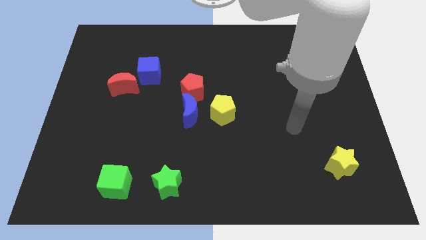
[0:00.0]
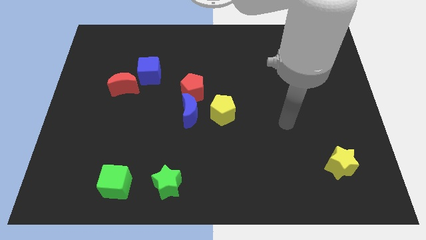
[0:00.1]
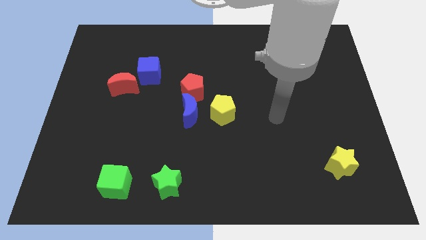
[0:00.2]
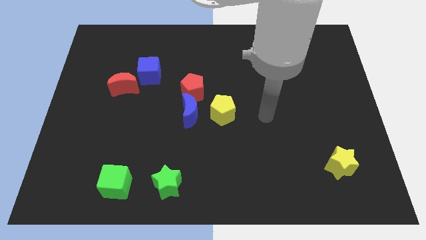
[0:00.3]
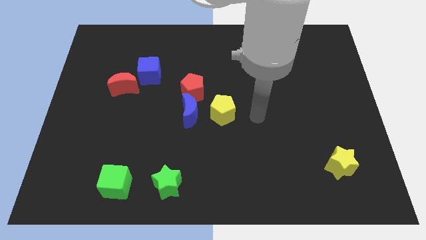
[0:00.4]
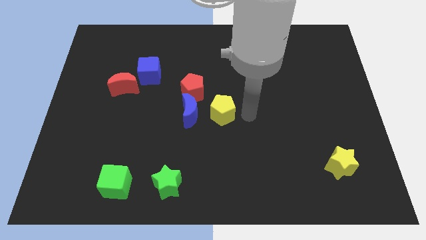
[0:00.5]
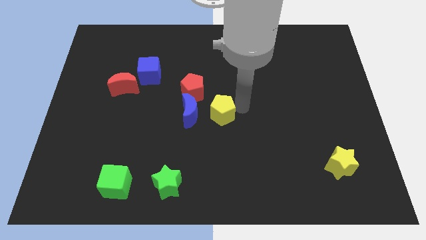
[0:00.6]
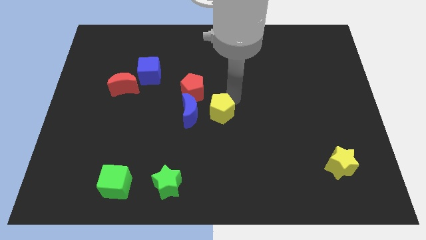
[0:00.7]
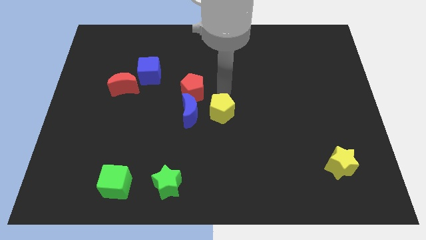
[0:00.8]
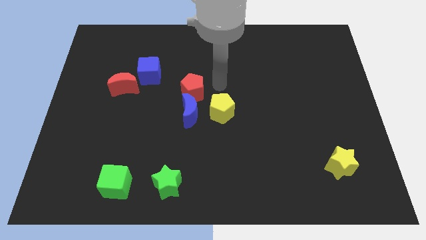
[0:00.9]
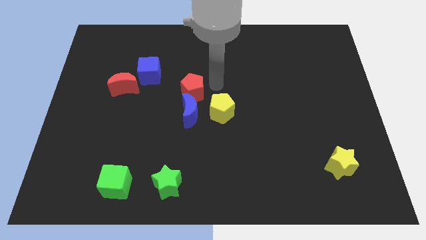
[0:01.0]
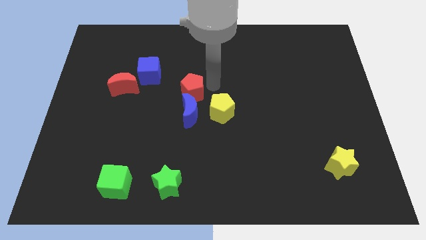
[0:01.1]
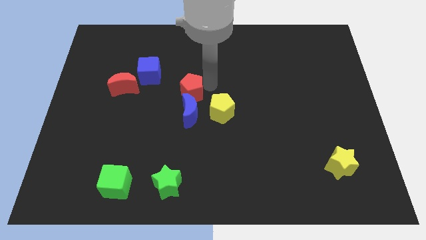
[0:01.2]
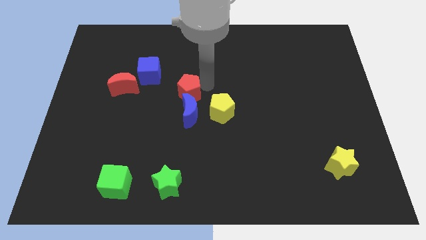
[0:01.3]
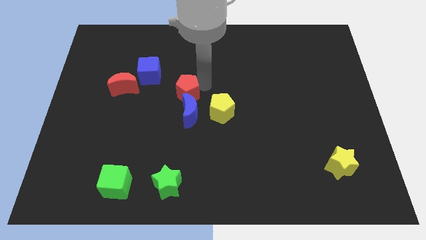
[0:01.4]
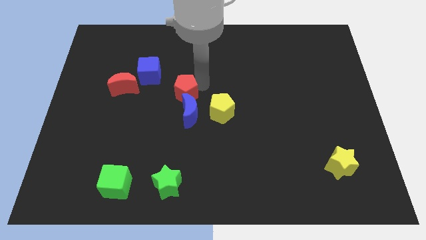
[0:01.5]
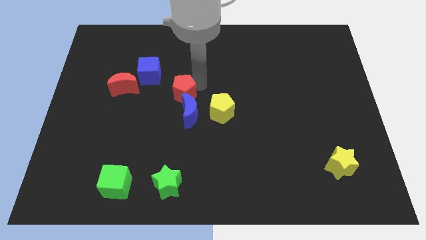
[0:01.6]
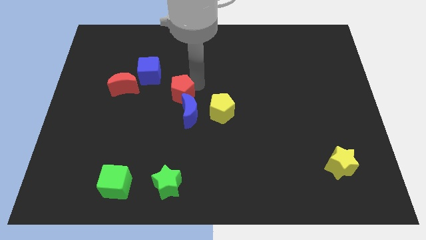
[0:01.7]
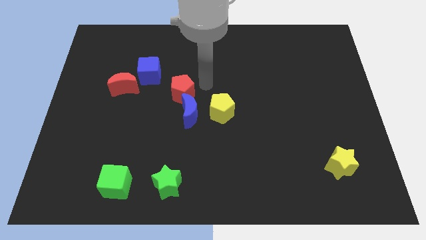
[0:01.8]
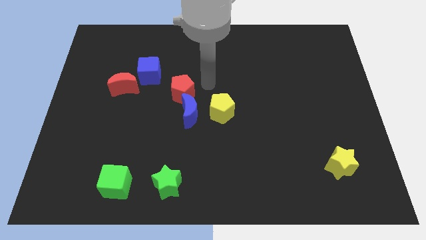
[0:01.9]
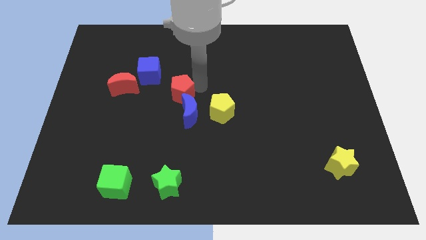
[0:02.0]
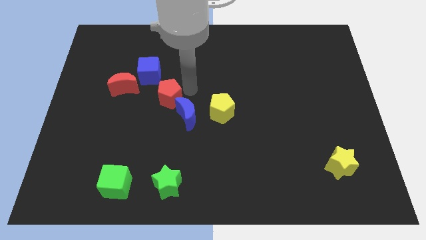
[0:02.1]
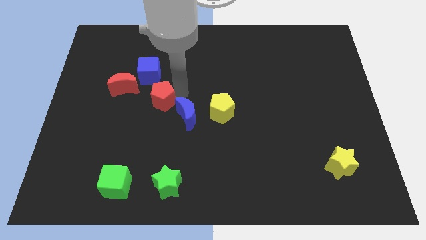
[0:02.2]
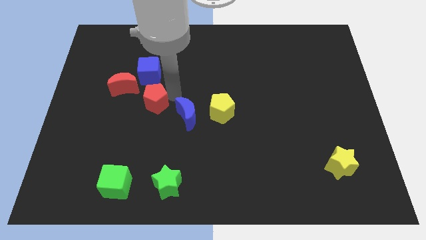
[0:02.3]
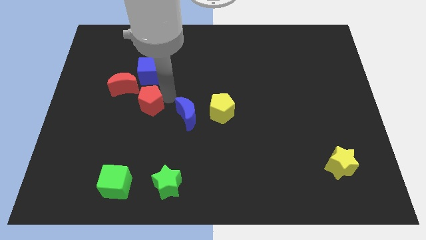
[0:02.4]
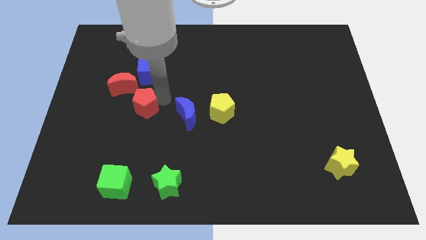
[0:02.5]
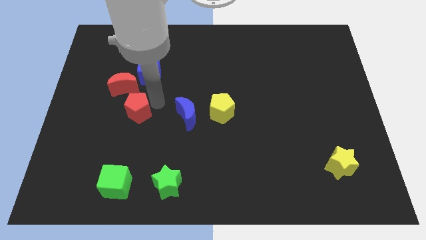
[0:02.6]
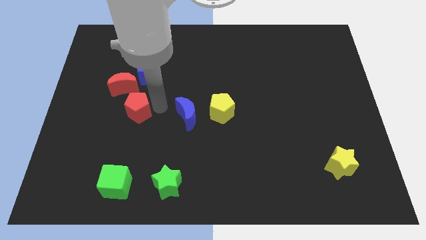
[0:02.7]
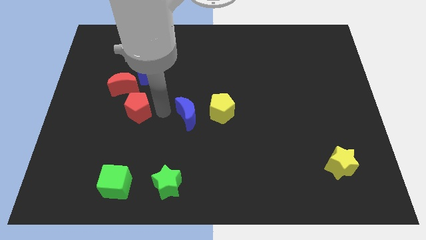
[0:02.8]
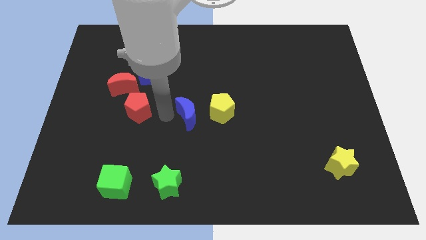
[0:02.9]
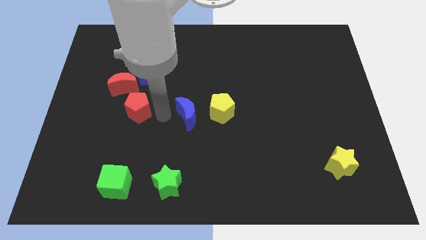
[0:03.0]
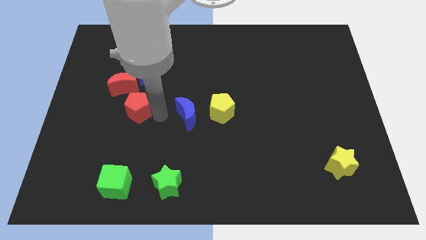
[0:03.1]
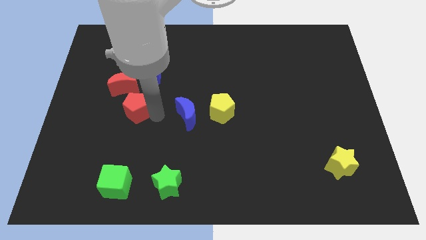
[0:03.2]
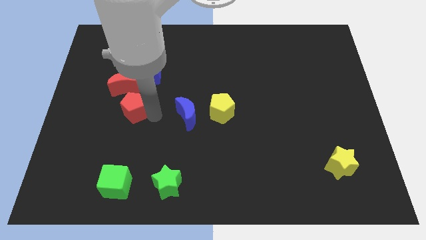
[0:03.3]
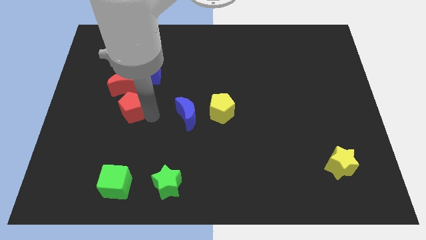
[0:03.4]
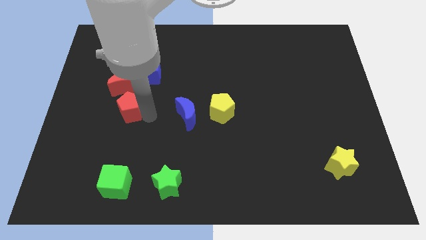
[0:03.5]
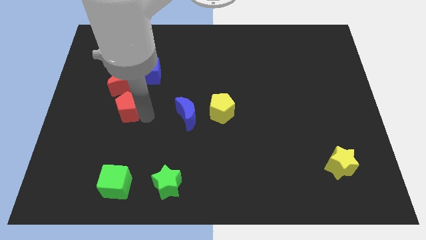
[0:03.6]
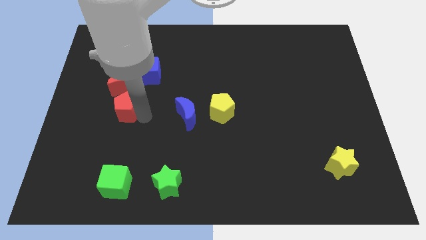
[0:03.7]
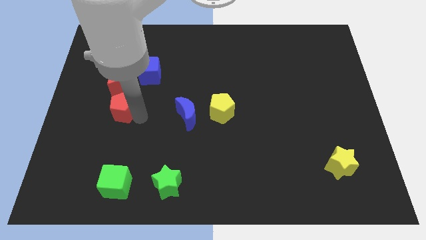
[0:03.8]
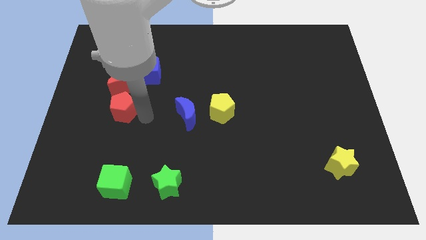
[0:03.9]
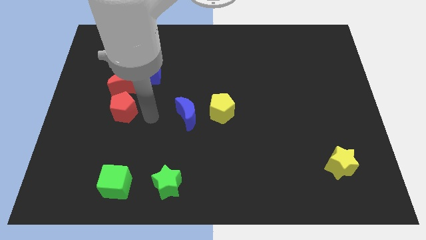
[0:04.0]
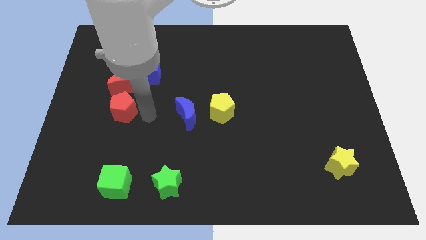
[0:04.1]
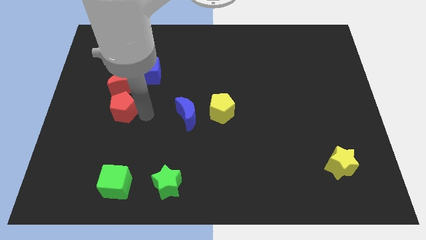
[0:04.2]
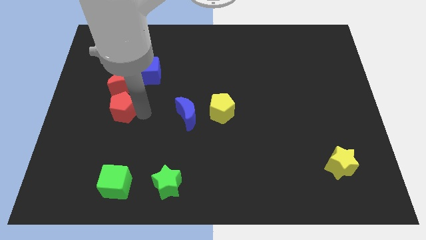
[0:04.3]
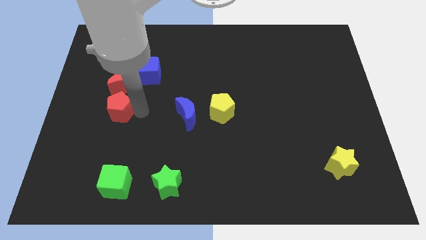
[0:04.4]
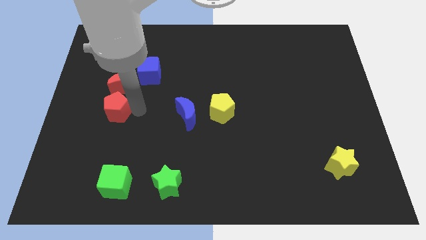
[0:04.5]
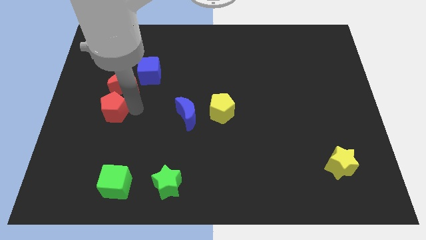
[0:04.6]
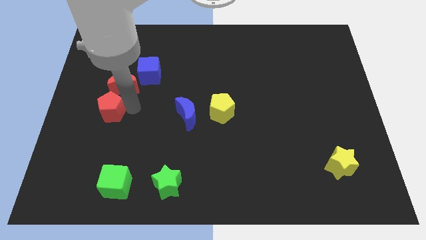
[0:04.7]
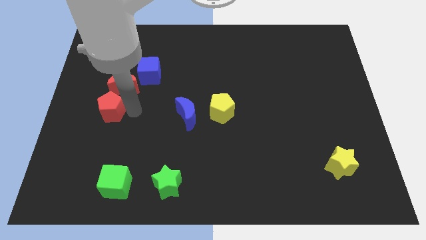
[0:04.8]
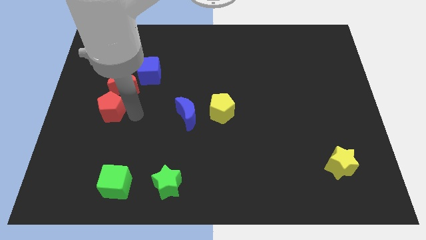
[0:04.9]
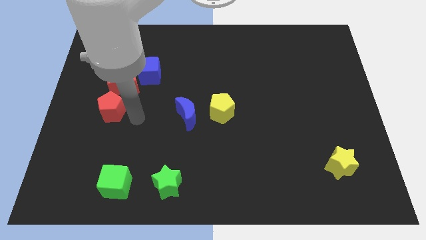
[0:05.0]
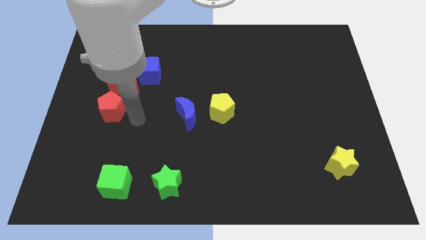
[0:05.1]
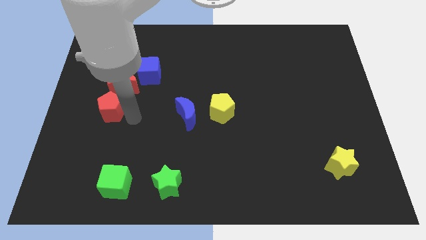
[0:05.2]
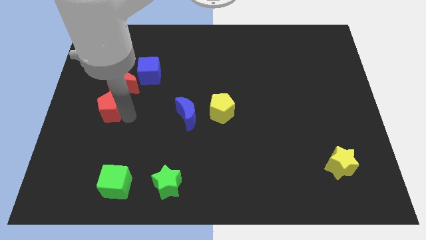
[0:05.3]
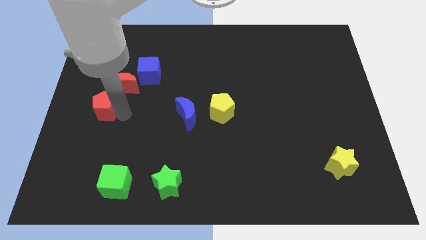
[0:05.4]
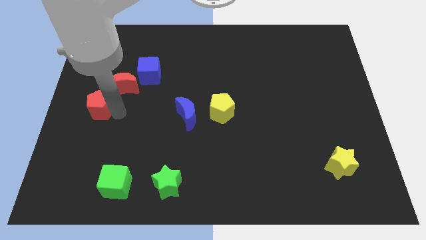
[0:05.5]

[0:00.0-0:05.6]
slide the red pentagon to the left side

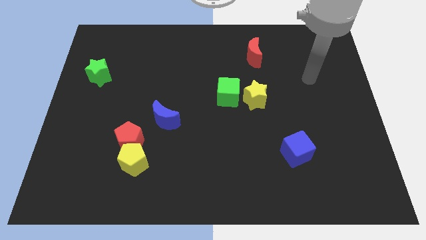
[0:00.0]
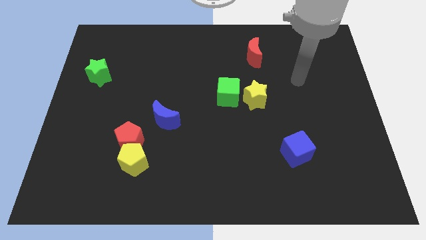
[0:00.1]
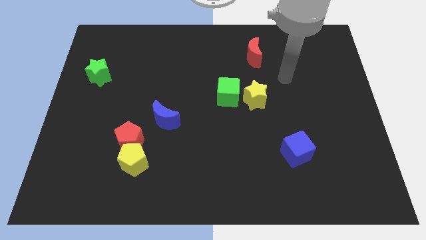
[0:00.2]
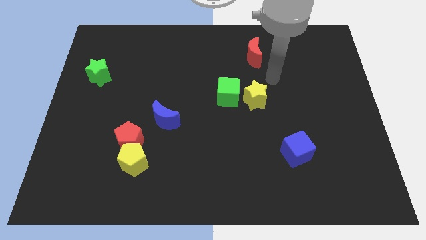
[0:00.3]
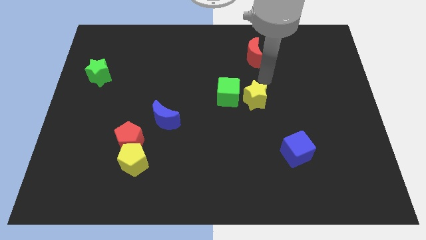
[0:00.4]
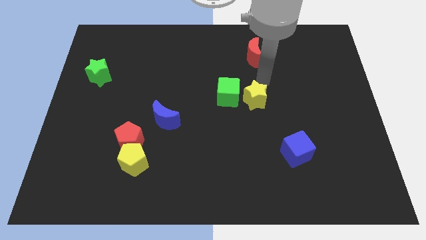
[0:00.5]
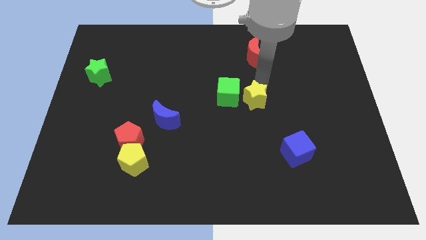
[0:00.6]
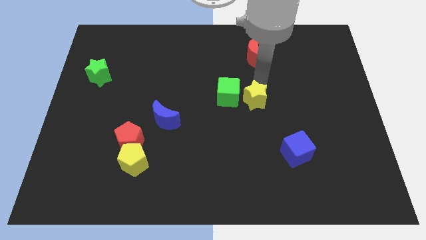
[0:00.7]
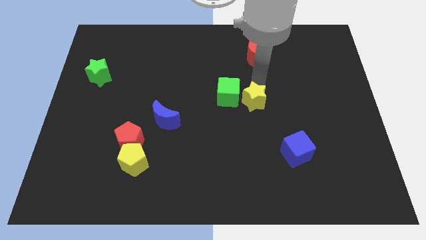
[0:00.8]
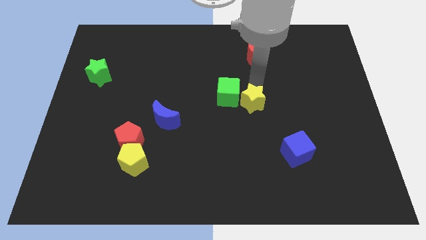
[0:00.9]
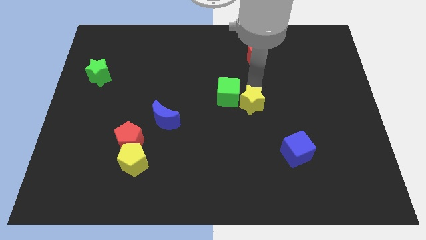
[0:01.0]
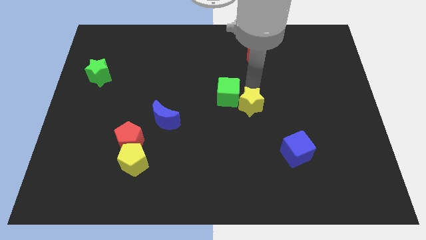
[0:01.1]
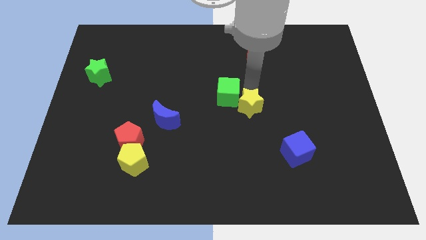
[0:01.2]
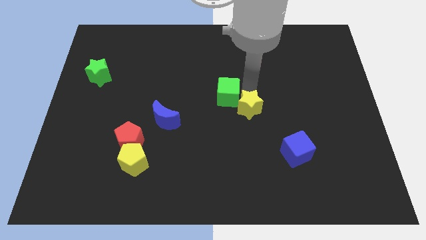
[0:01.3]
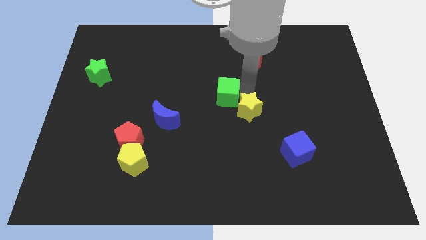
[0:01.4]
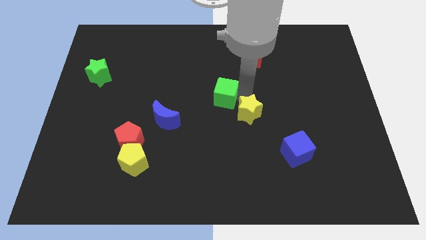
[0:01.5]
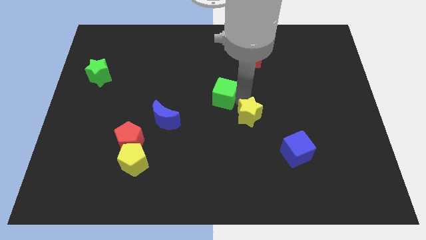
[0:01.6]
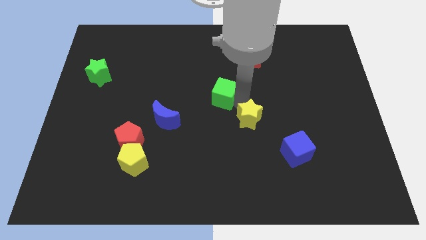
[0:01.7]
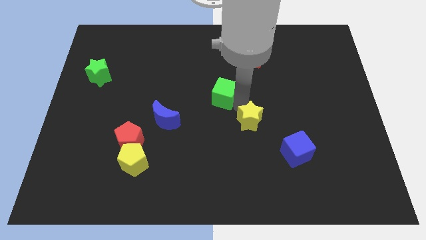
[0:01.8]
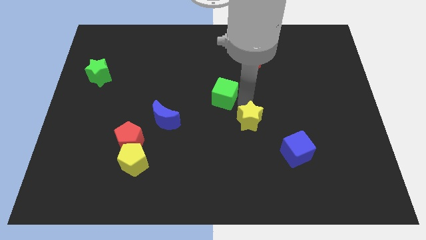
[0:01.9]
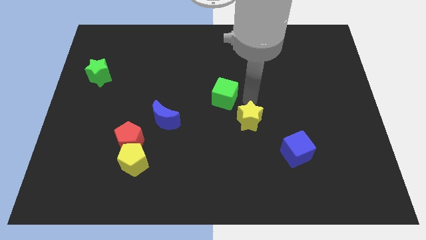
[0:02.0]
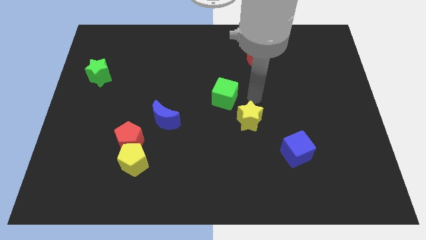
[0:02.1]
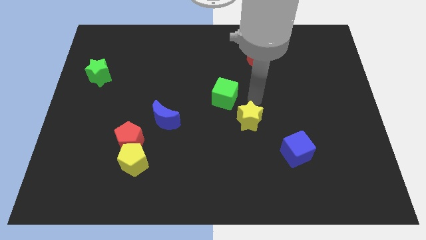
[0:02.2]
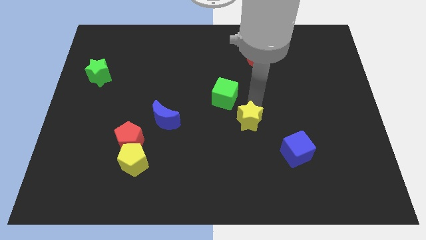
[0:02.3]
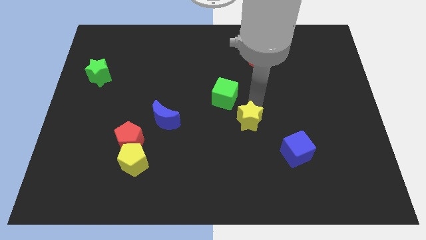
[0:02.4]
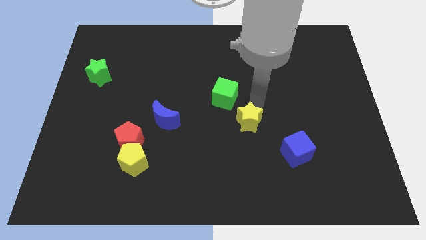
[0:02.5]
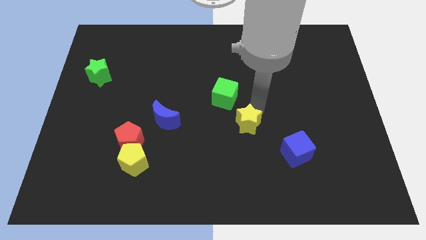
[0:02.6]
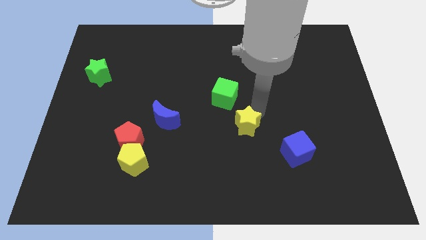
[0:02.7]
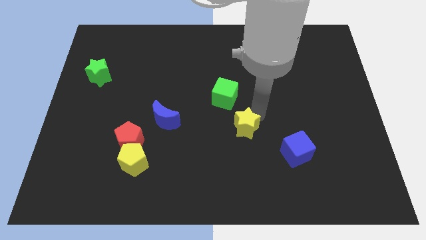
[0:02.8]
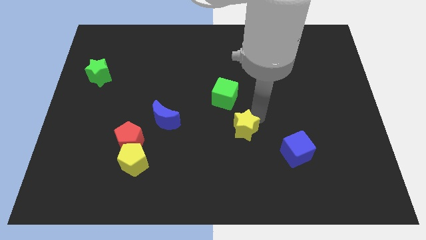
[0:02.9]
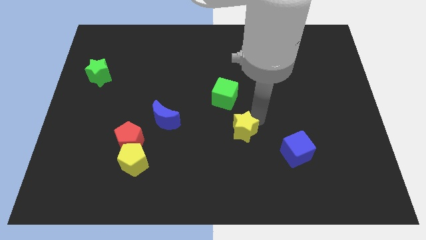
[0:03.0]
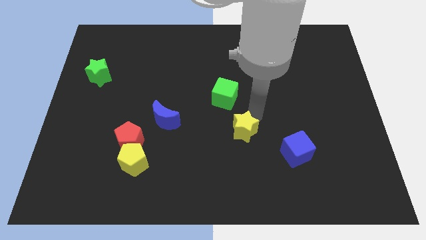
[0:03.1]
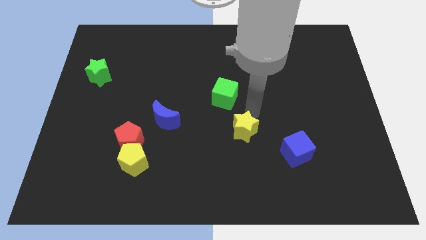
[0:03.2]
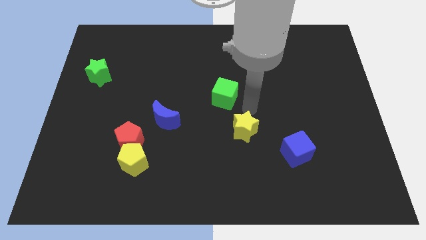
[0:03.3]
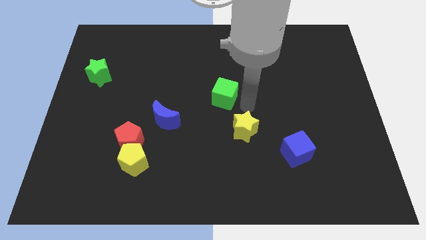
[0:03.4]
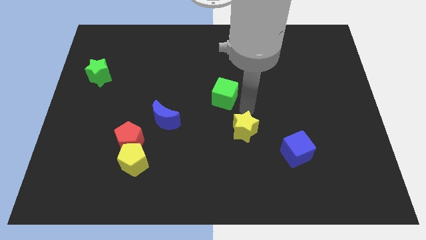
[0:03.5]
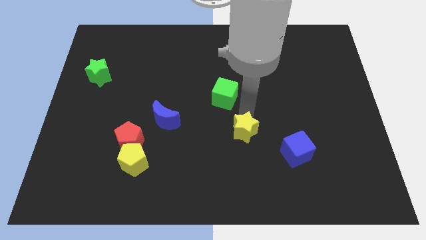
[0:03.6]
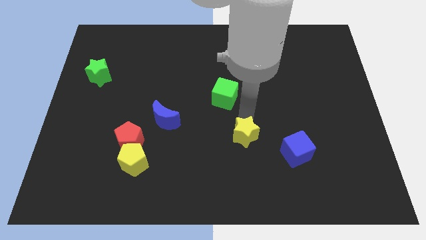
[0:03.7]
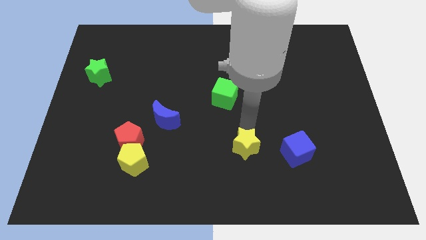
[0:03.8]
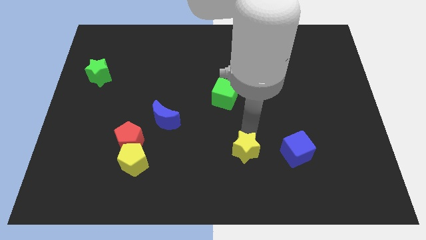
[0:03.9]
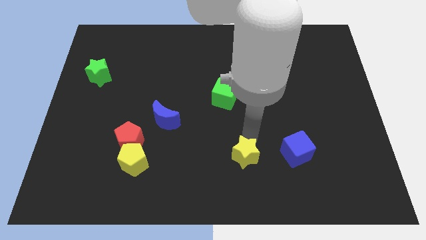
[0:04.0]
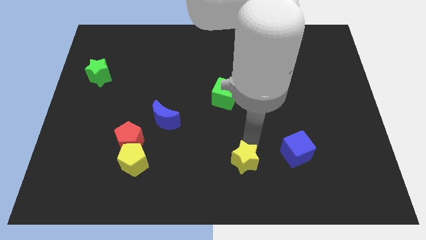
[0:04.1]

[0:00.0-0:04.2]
push the yellow star to the bottom
